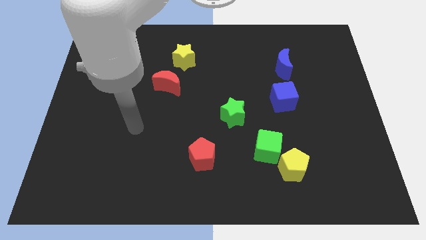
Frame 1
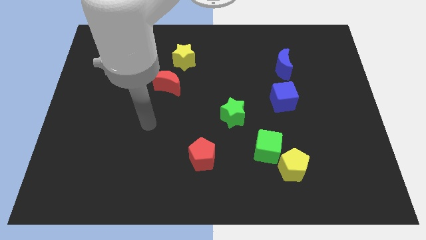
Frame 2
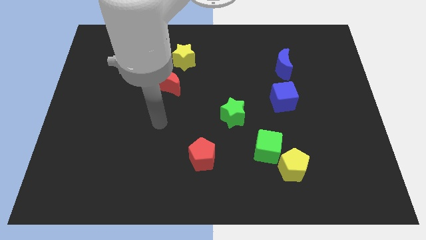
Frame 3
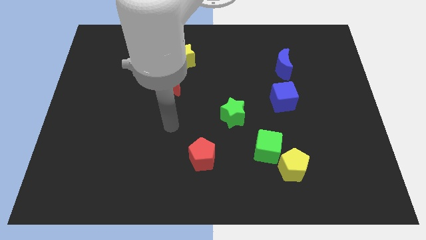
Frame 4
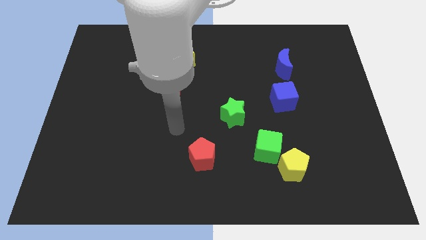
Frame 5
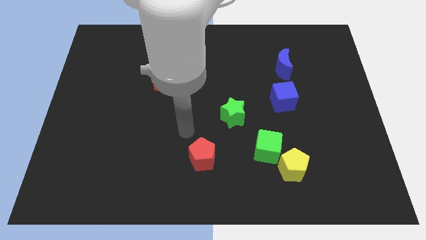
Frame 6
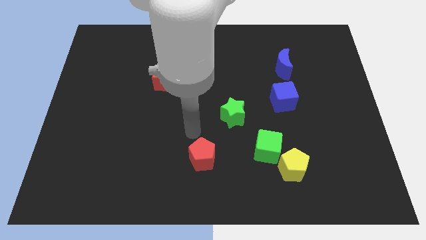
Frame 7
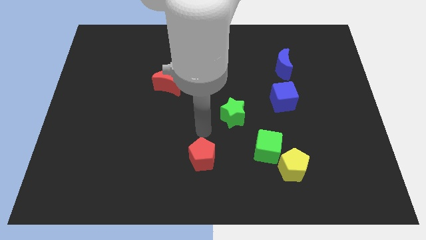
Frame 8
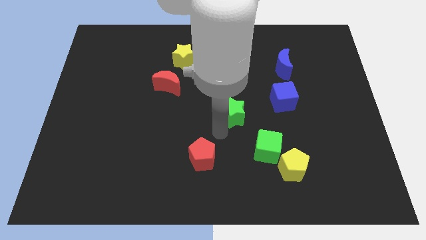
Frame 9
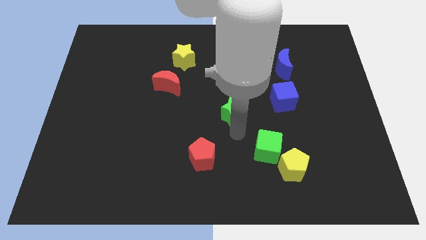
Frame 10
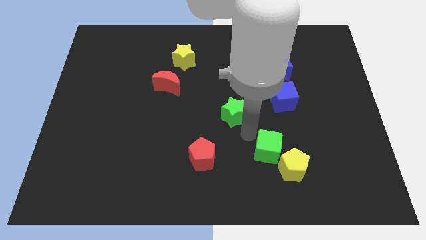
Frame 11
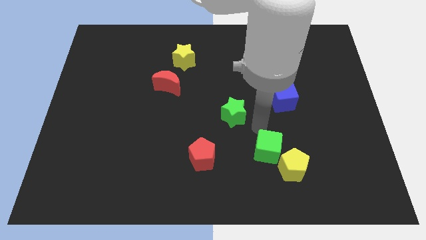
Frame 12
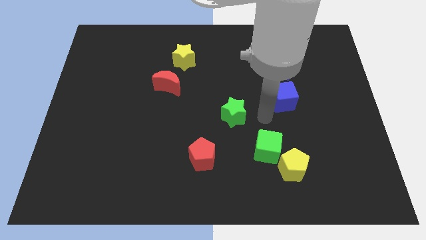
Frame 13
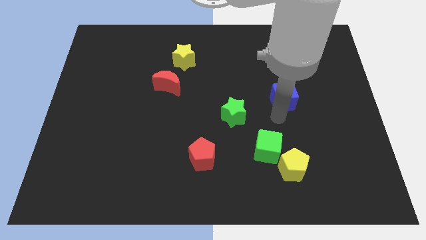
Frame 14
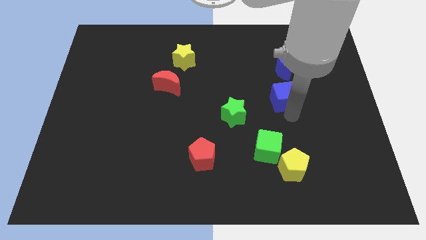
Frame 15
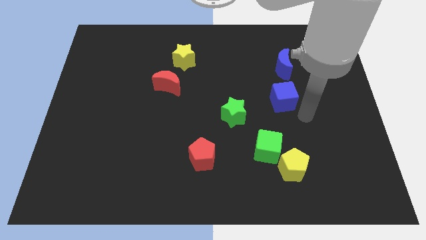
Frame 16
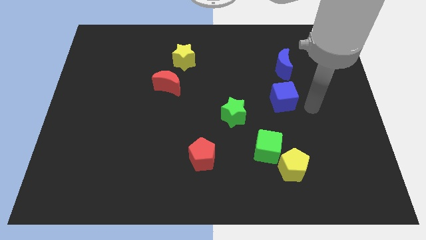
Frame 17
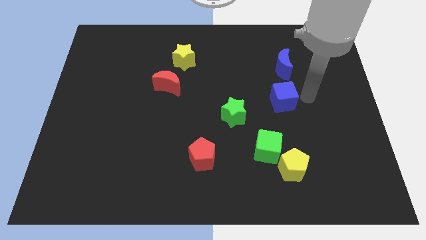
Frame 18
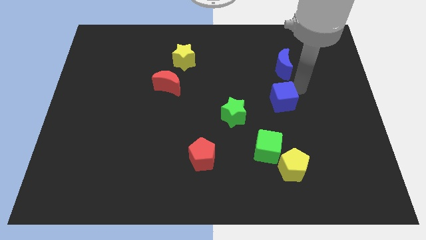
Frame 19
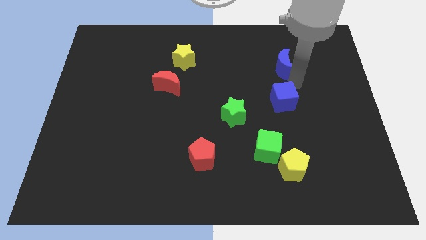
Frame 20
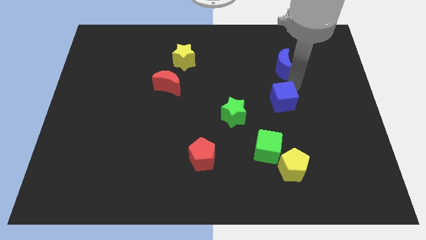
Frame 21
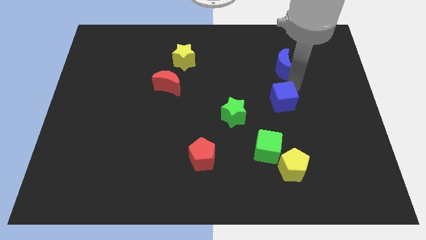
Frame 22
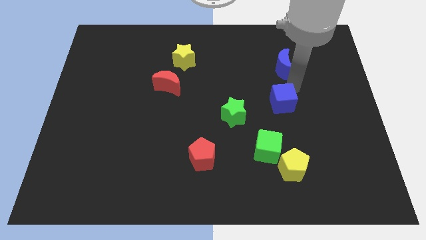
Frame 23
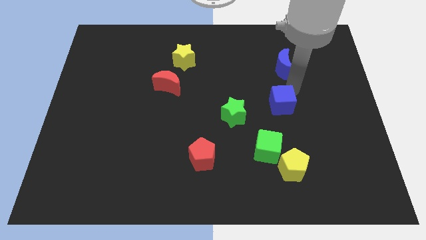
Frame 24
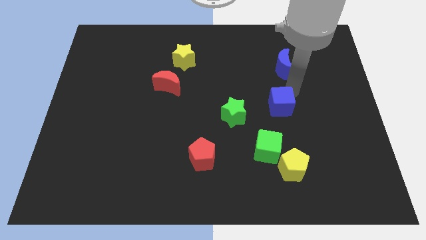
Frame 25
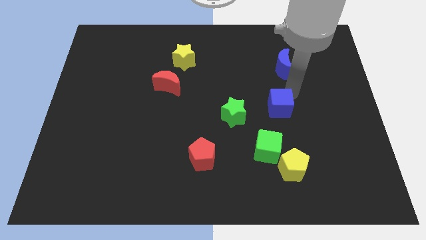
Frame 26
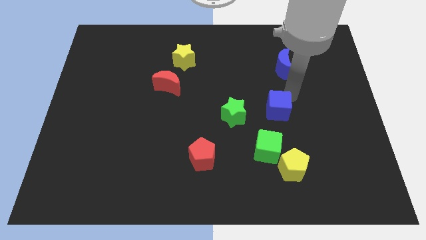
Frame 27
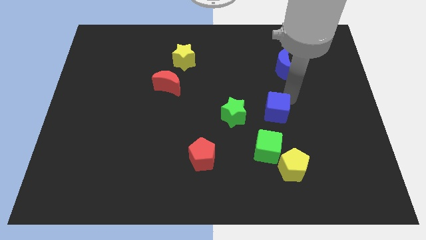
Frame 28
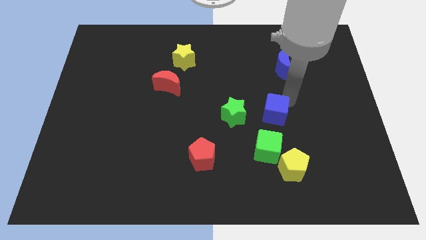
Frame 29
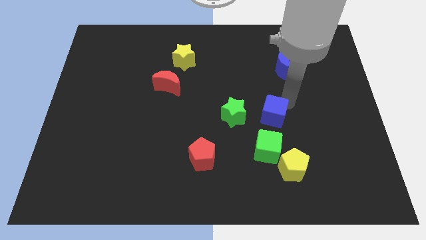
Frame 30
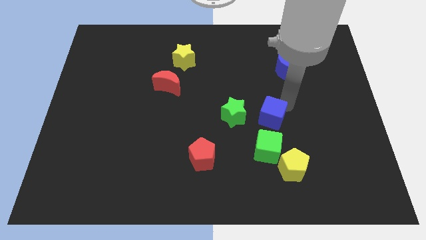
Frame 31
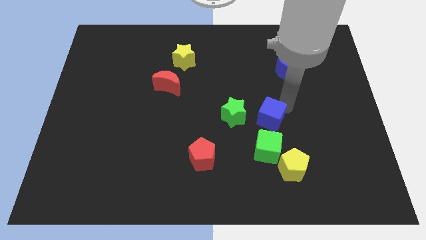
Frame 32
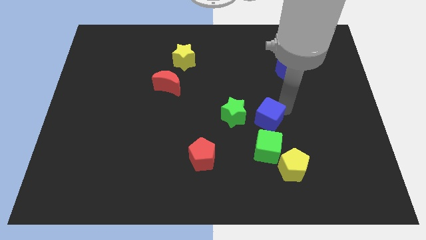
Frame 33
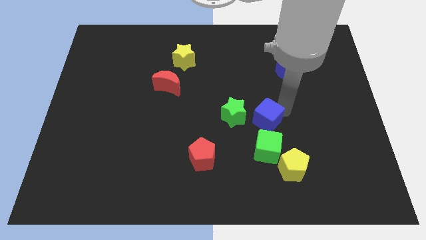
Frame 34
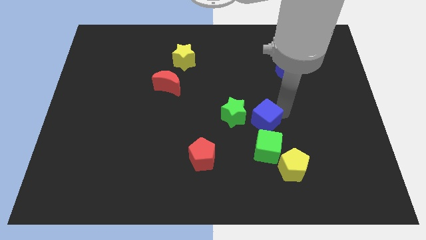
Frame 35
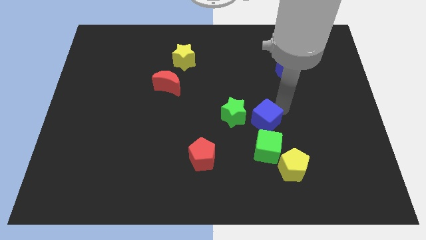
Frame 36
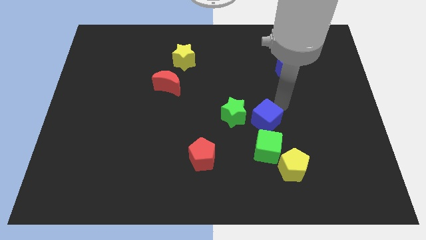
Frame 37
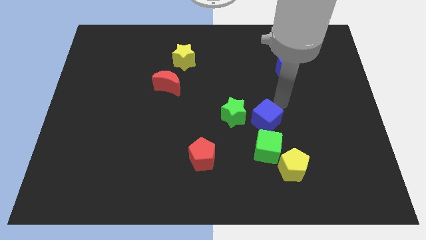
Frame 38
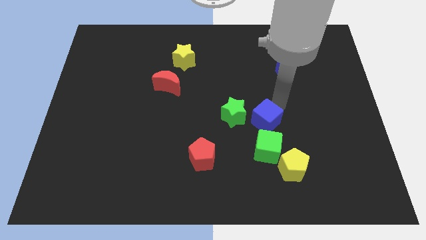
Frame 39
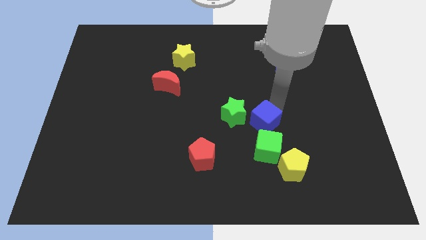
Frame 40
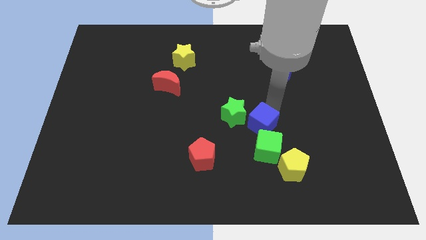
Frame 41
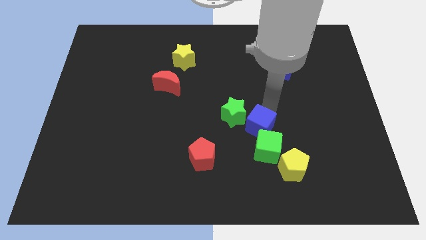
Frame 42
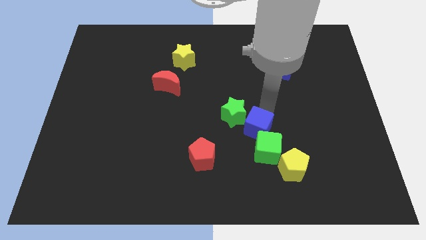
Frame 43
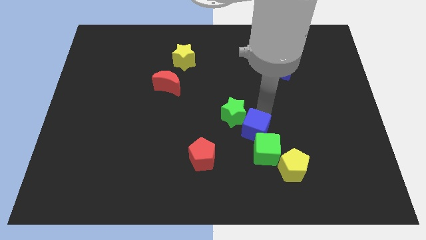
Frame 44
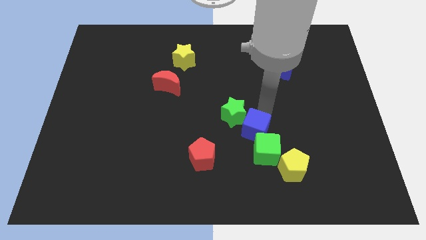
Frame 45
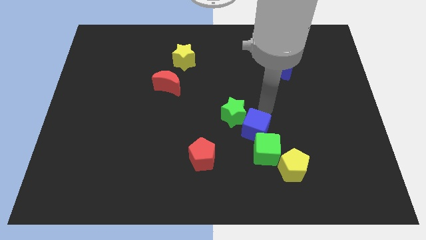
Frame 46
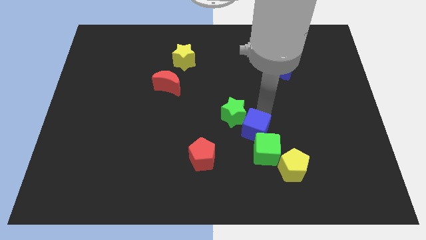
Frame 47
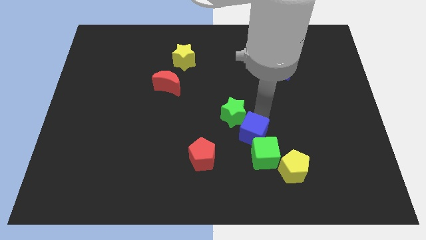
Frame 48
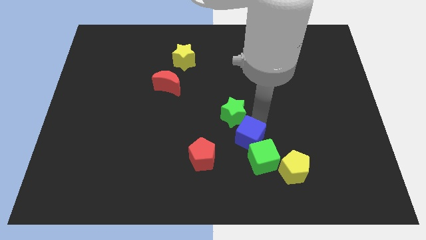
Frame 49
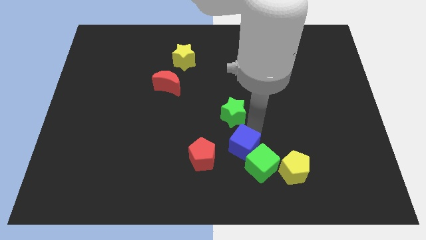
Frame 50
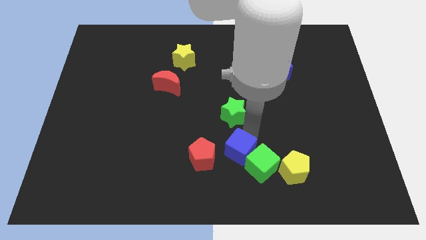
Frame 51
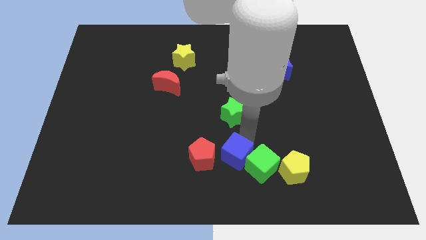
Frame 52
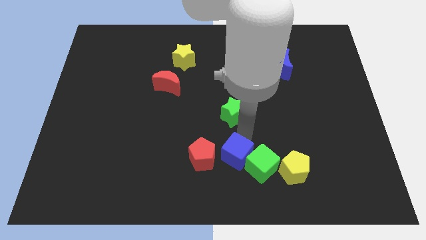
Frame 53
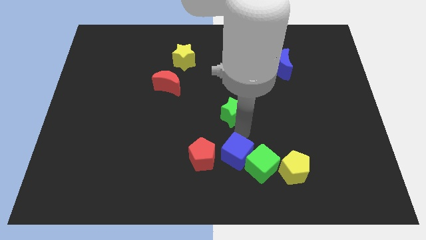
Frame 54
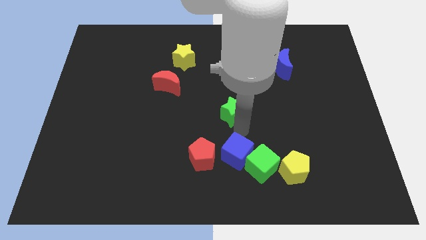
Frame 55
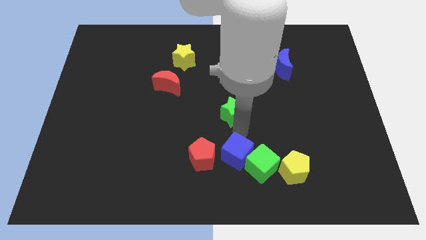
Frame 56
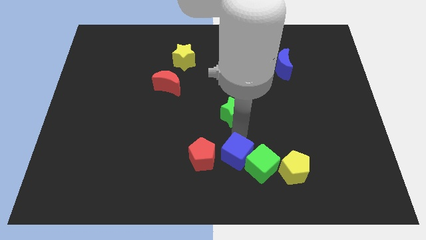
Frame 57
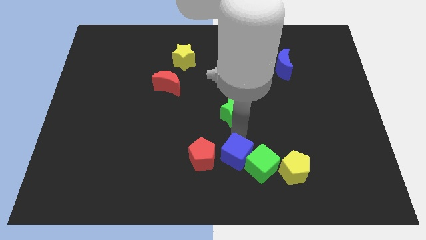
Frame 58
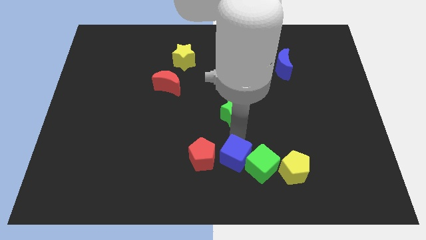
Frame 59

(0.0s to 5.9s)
move the blue cube to the bottom side

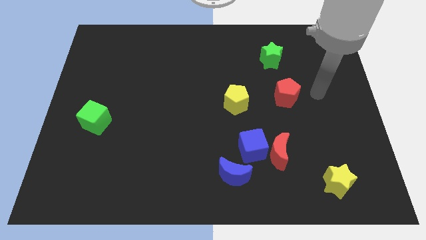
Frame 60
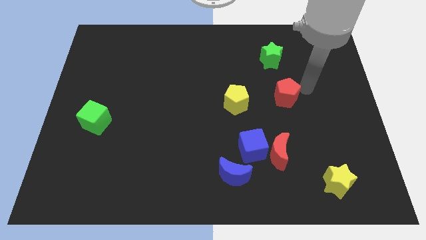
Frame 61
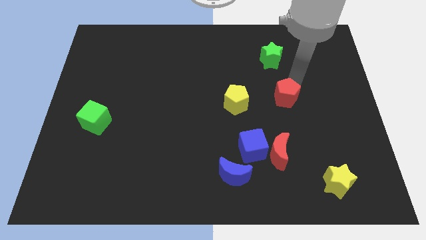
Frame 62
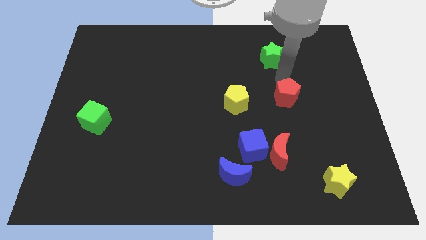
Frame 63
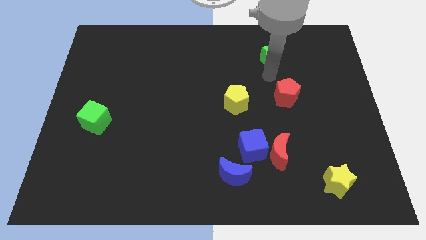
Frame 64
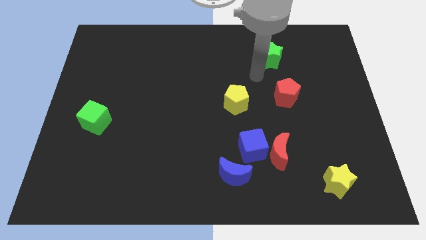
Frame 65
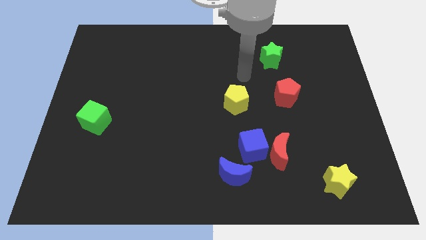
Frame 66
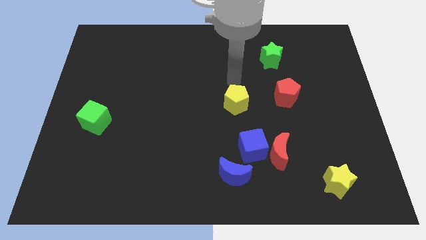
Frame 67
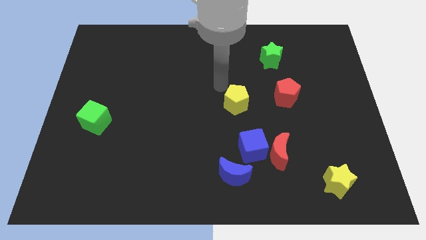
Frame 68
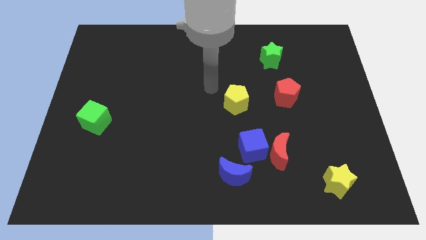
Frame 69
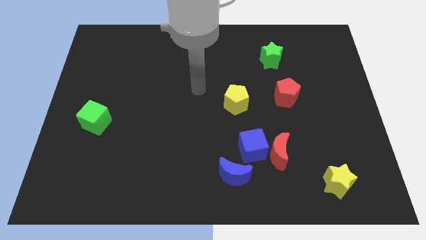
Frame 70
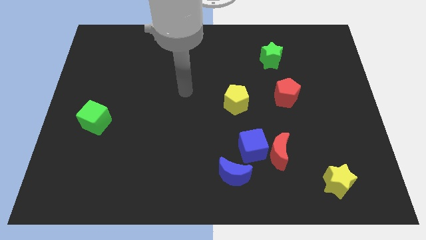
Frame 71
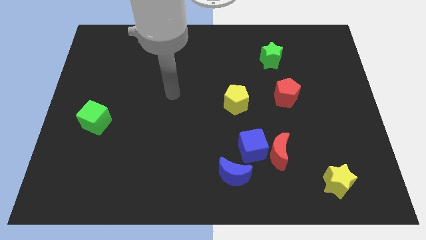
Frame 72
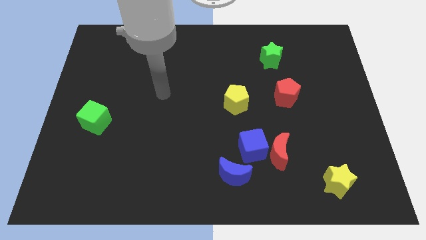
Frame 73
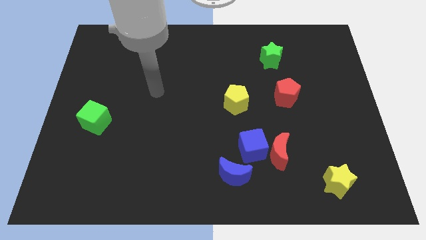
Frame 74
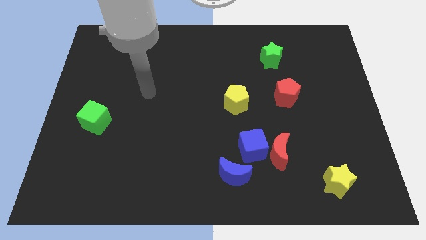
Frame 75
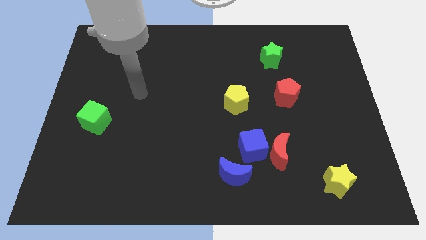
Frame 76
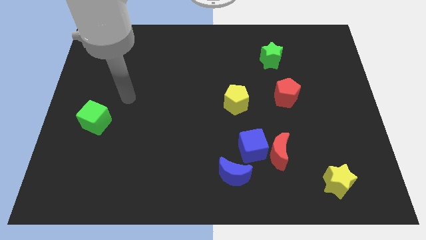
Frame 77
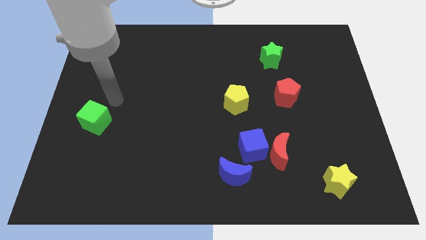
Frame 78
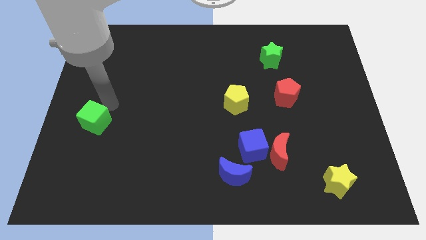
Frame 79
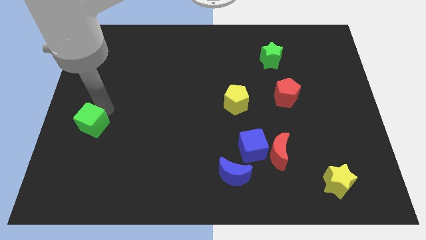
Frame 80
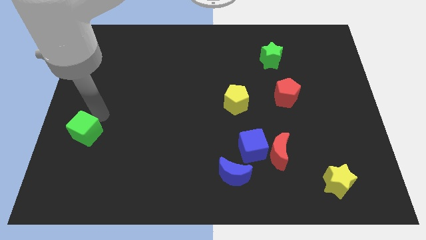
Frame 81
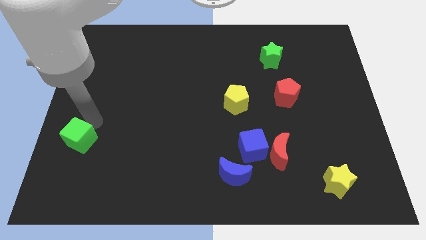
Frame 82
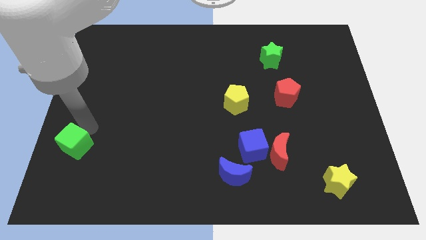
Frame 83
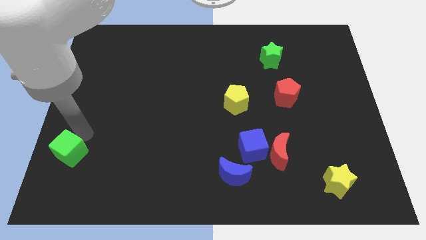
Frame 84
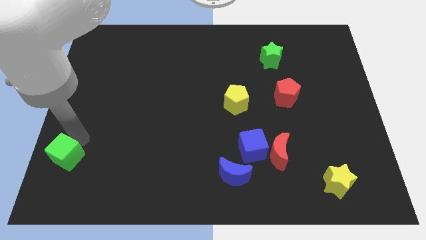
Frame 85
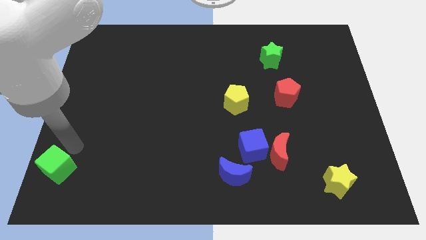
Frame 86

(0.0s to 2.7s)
move the green cube to the bottom left corner
